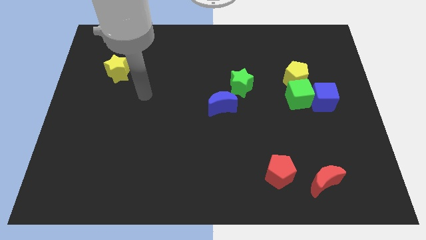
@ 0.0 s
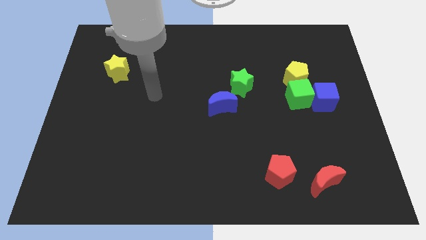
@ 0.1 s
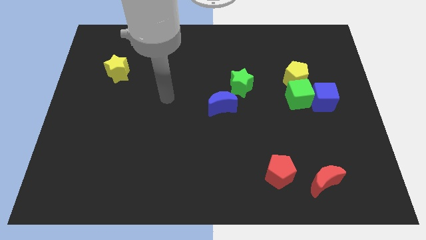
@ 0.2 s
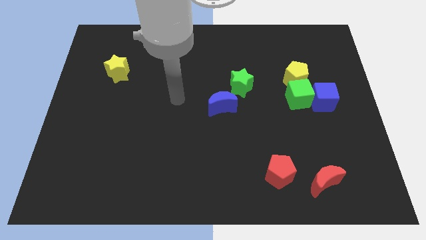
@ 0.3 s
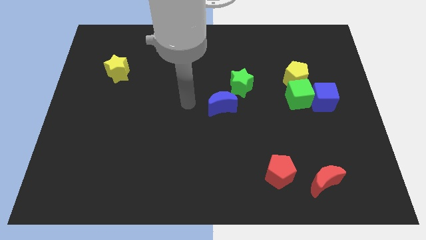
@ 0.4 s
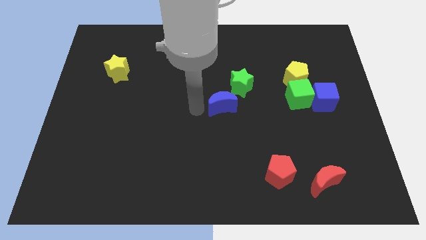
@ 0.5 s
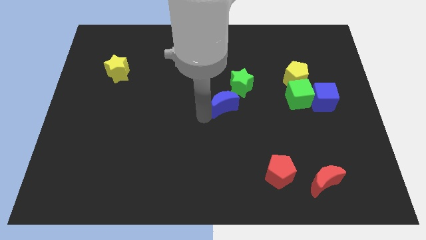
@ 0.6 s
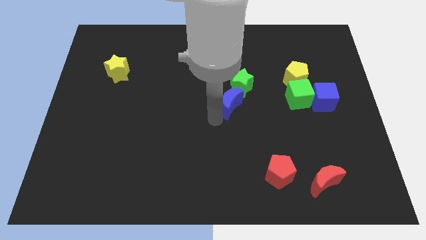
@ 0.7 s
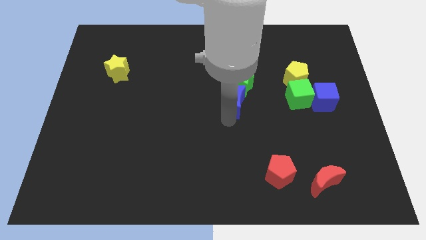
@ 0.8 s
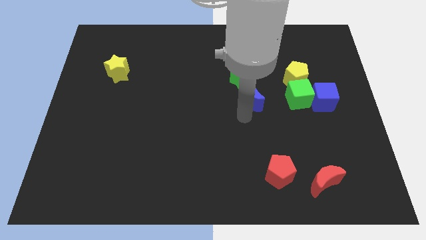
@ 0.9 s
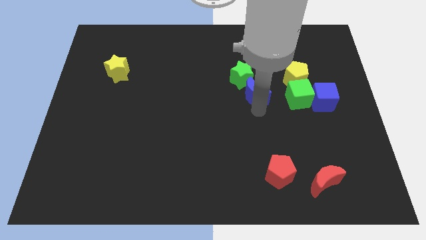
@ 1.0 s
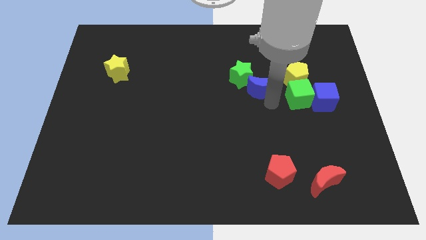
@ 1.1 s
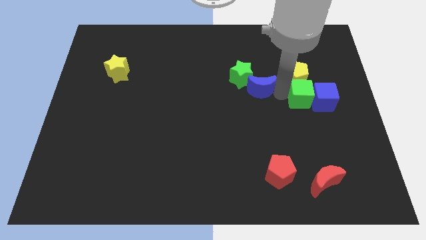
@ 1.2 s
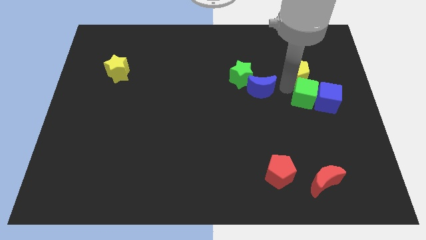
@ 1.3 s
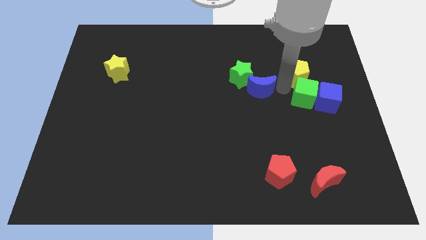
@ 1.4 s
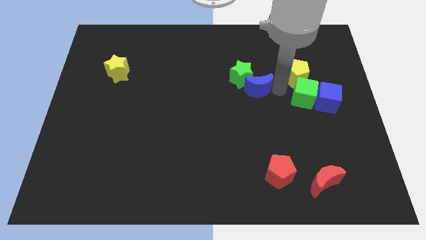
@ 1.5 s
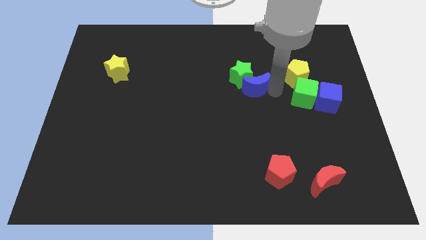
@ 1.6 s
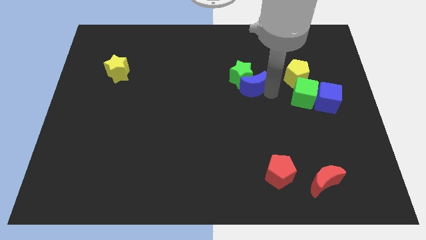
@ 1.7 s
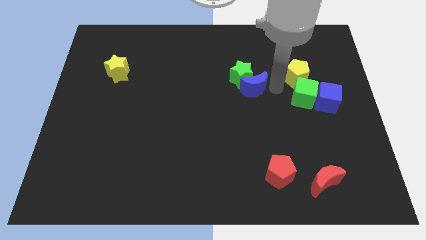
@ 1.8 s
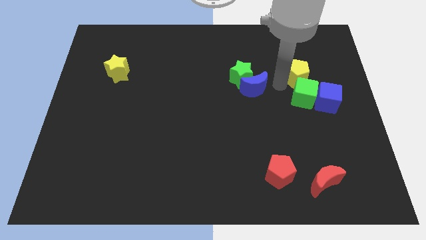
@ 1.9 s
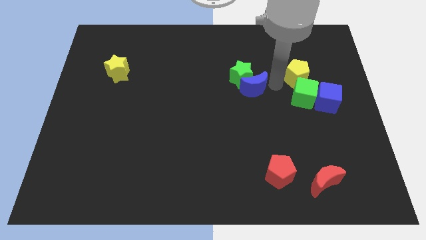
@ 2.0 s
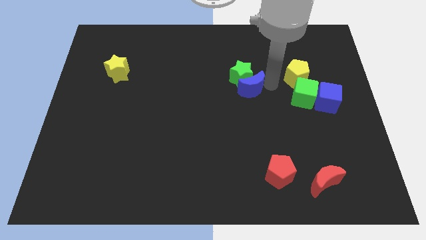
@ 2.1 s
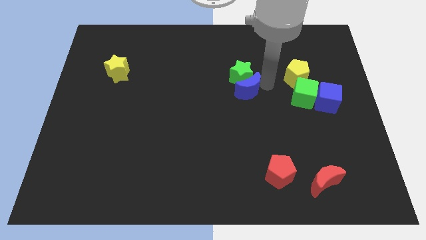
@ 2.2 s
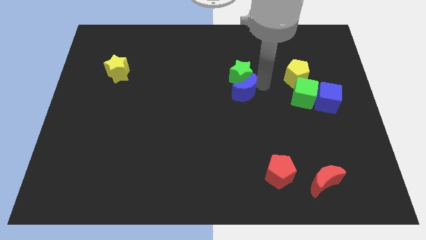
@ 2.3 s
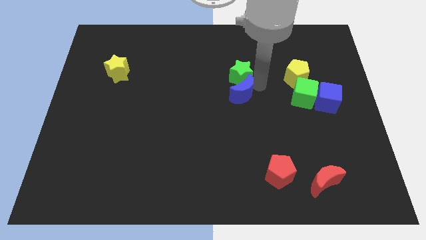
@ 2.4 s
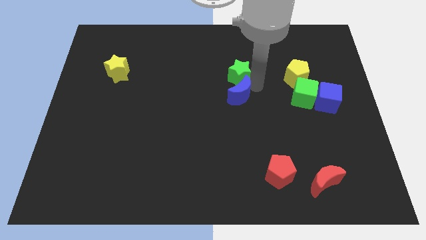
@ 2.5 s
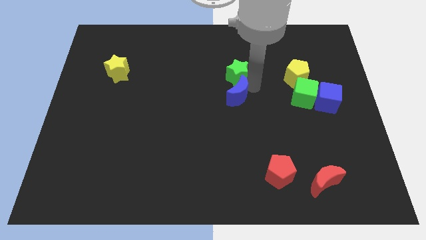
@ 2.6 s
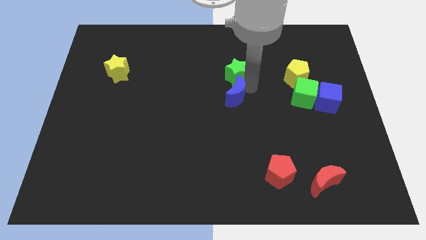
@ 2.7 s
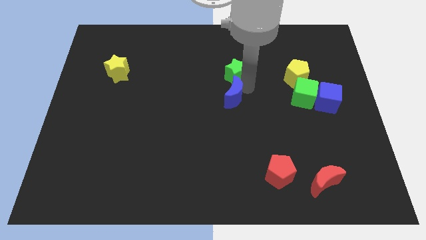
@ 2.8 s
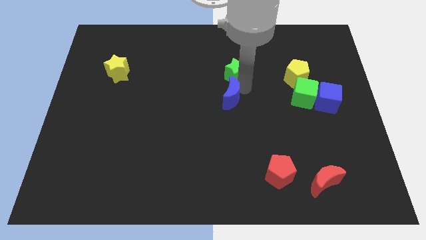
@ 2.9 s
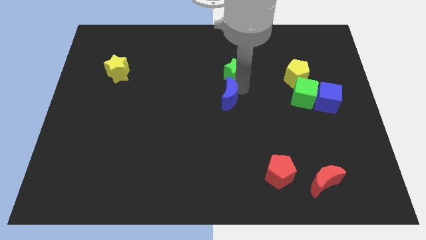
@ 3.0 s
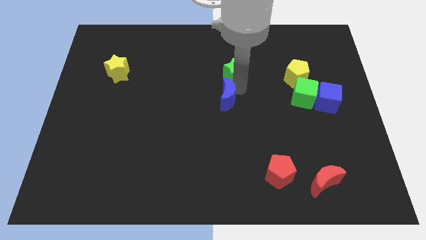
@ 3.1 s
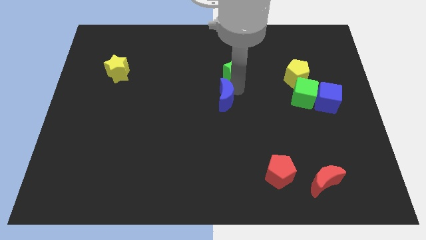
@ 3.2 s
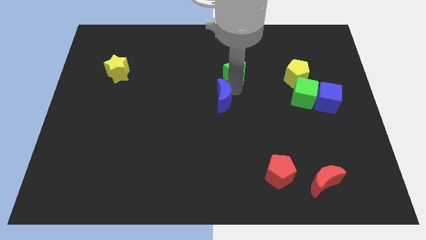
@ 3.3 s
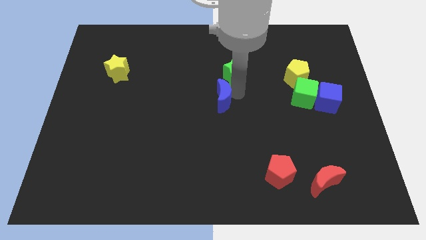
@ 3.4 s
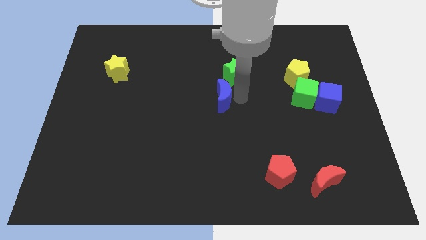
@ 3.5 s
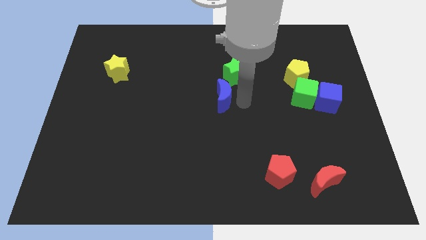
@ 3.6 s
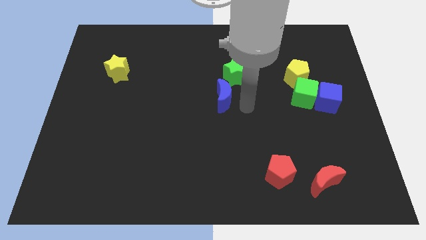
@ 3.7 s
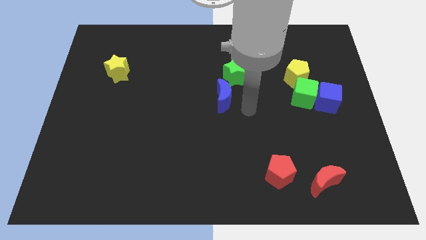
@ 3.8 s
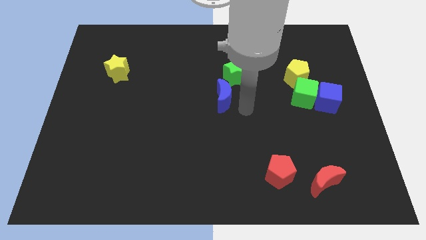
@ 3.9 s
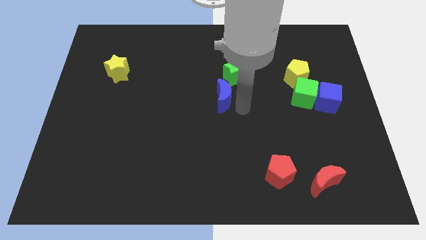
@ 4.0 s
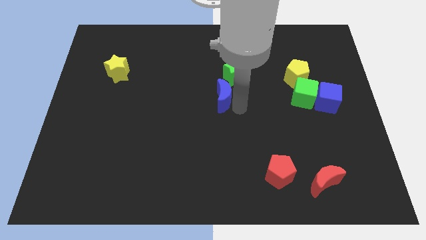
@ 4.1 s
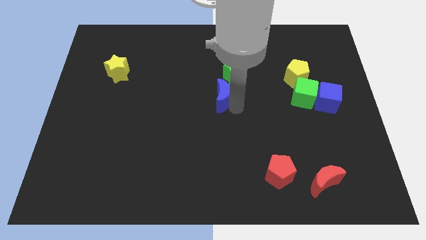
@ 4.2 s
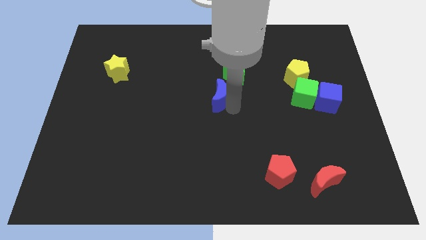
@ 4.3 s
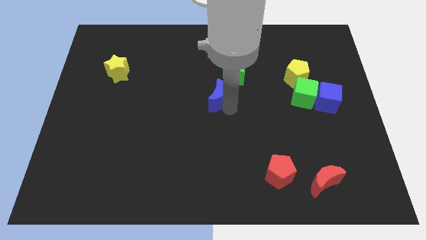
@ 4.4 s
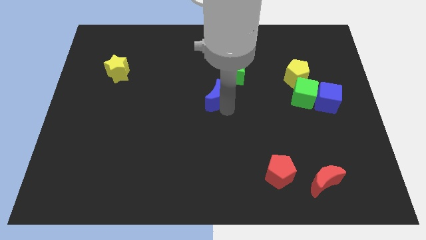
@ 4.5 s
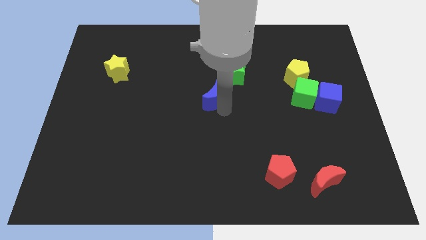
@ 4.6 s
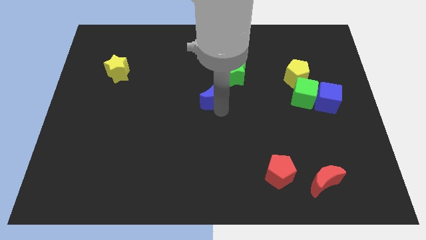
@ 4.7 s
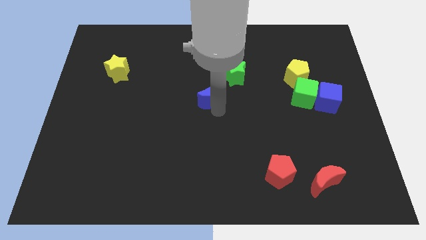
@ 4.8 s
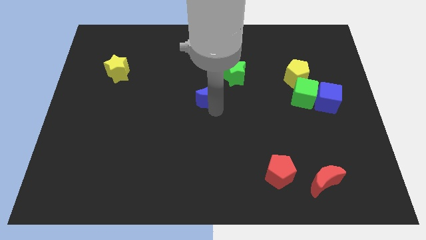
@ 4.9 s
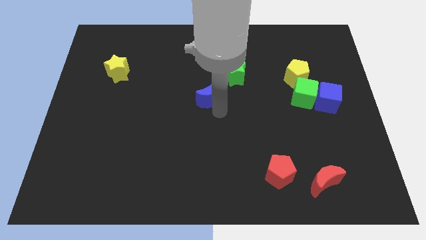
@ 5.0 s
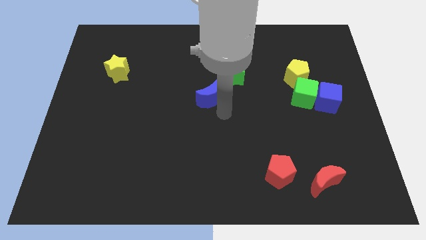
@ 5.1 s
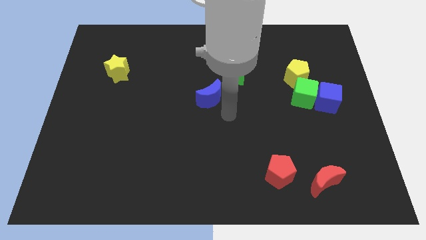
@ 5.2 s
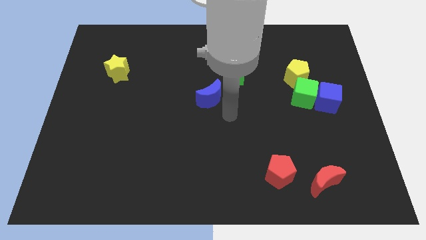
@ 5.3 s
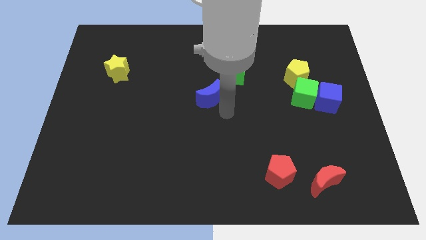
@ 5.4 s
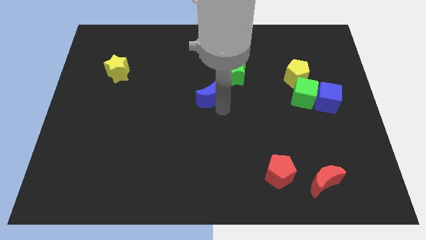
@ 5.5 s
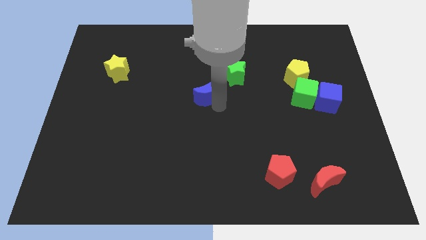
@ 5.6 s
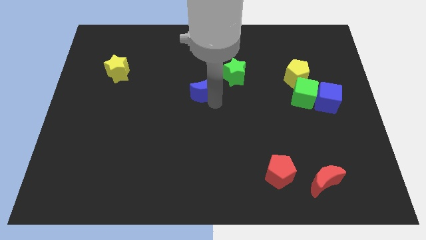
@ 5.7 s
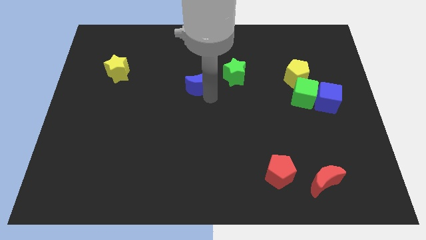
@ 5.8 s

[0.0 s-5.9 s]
slightly slide the blue moon upwards and then left

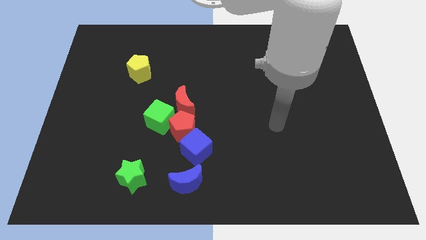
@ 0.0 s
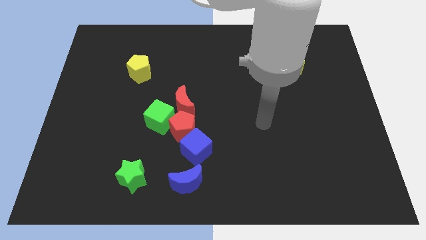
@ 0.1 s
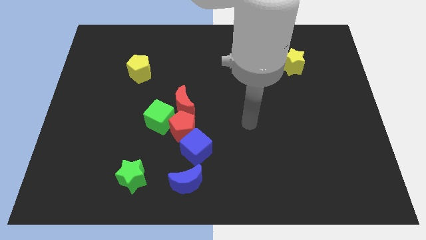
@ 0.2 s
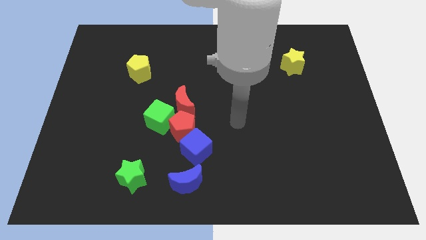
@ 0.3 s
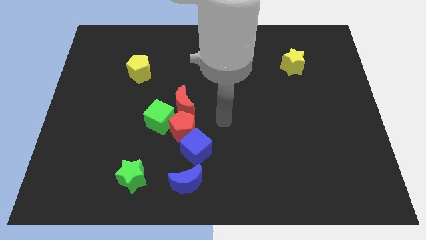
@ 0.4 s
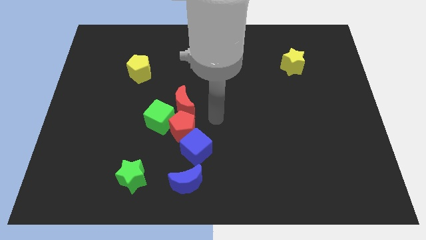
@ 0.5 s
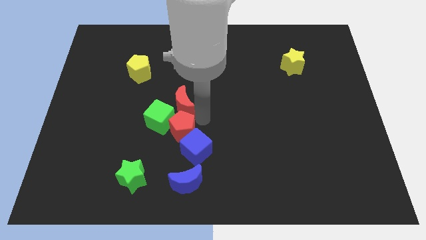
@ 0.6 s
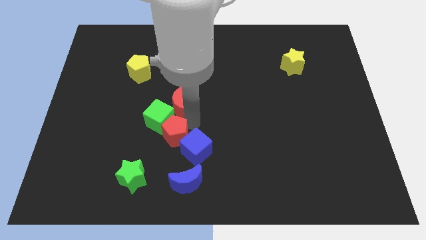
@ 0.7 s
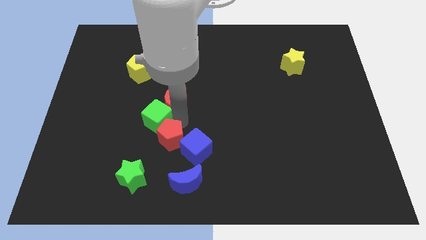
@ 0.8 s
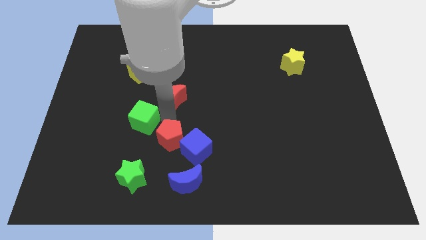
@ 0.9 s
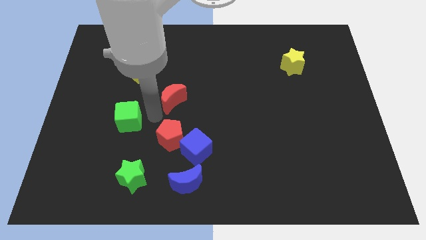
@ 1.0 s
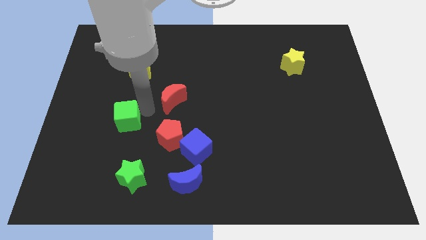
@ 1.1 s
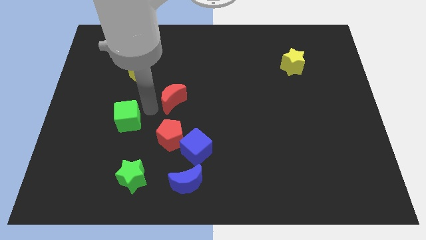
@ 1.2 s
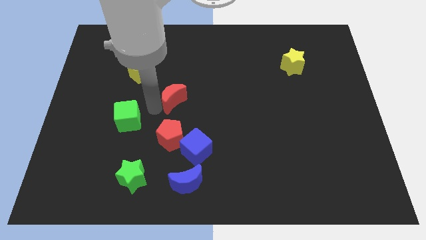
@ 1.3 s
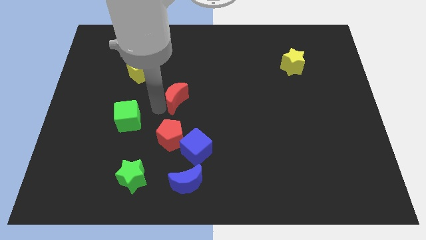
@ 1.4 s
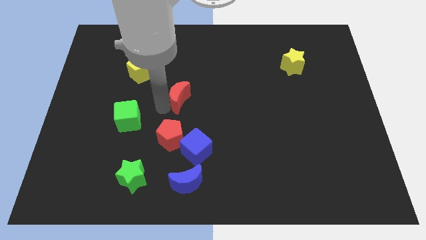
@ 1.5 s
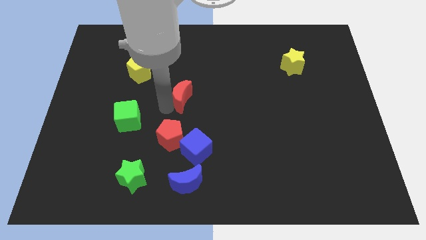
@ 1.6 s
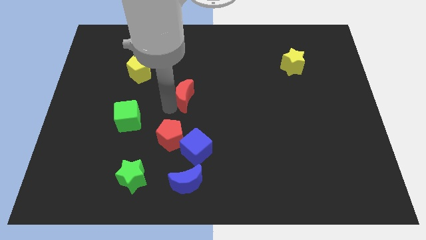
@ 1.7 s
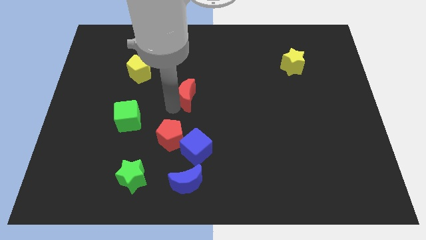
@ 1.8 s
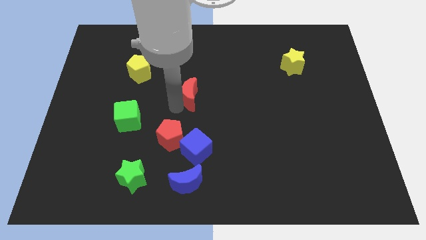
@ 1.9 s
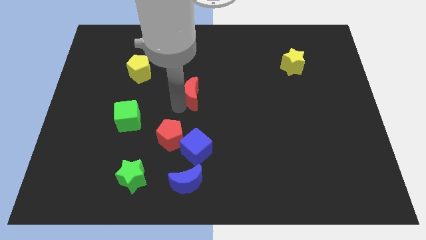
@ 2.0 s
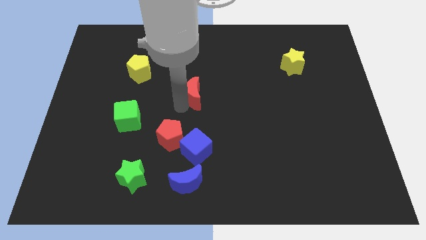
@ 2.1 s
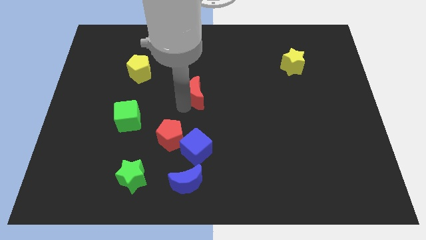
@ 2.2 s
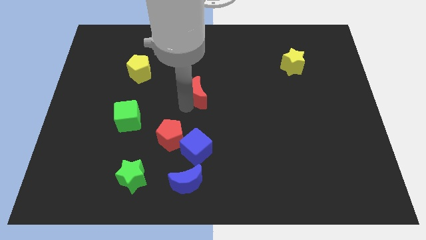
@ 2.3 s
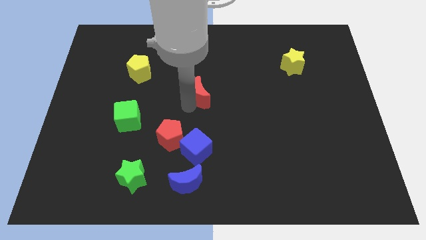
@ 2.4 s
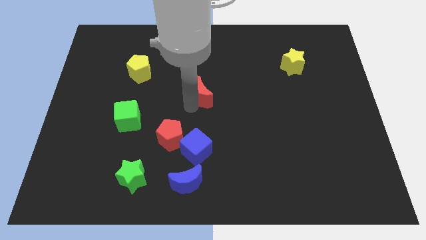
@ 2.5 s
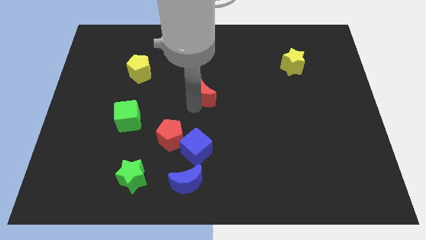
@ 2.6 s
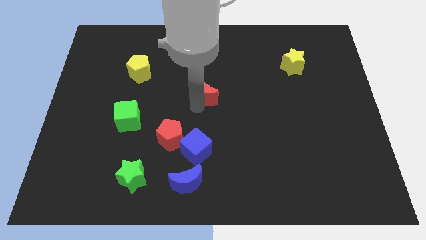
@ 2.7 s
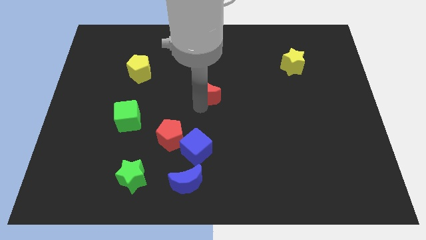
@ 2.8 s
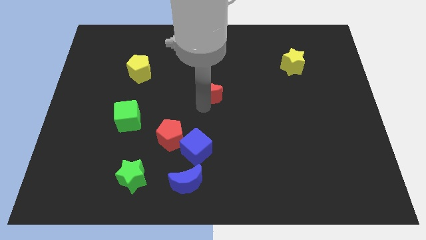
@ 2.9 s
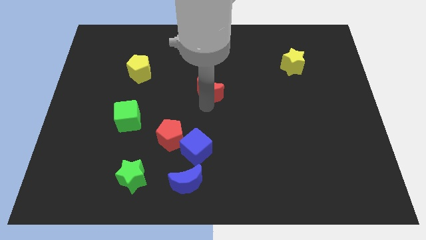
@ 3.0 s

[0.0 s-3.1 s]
slightly slide the red moon upwards and to the right diagonally
